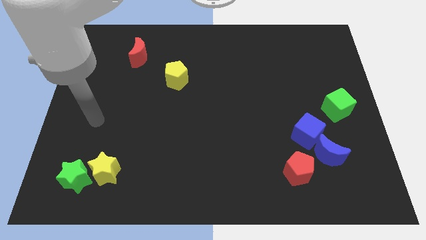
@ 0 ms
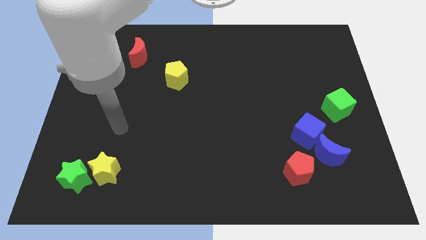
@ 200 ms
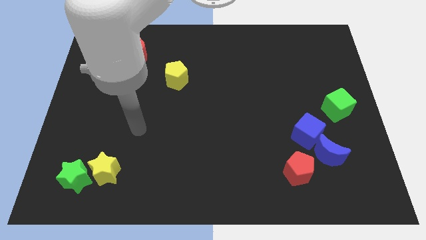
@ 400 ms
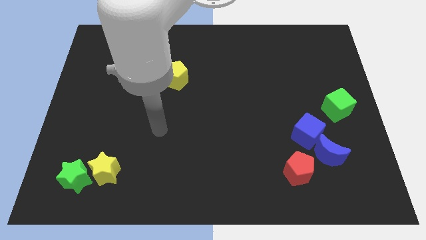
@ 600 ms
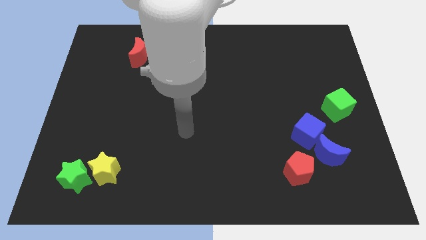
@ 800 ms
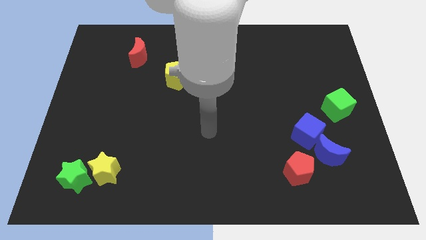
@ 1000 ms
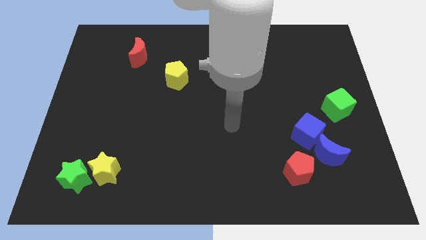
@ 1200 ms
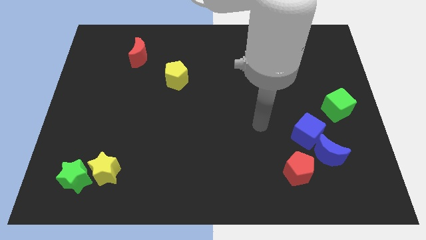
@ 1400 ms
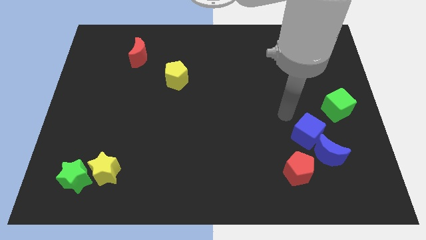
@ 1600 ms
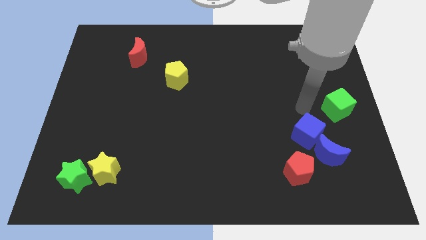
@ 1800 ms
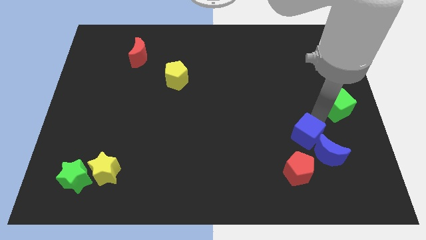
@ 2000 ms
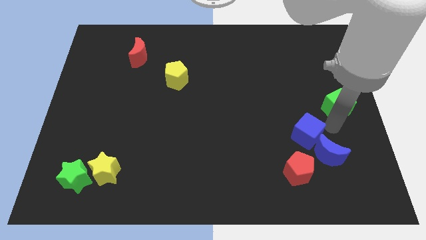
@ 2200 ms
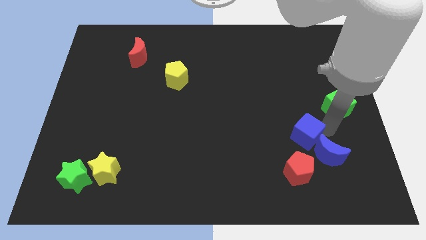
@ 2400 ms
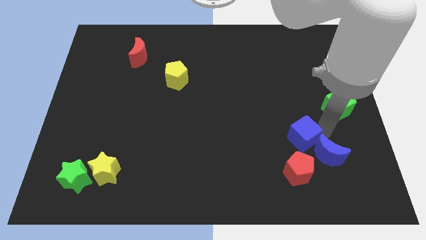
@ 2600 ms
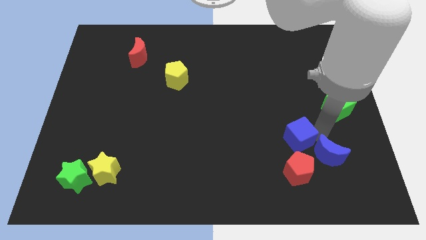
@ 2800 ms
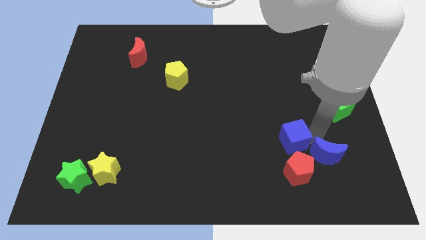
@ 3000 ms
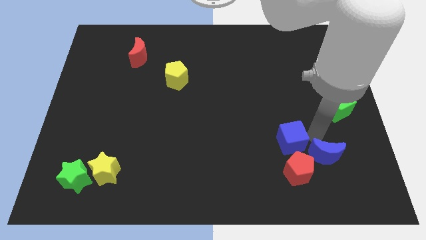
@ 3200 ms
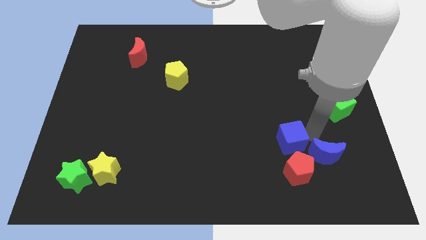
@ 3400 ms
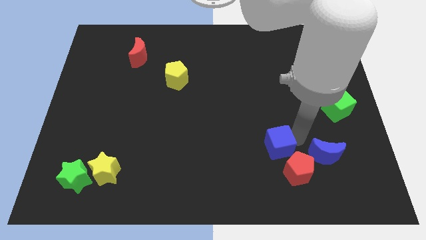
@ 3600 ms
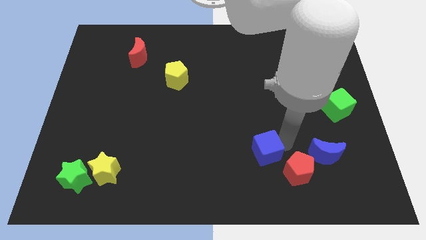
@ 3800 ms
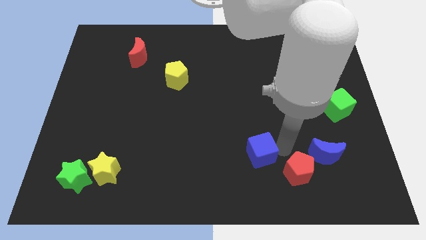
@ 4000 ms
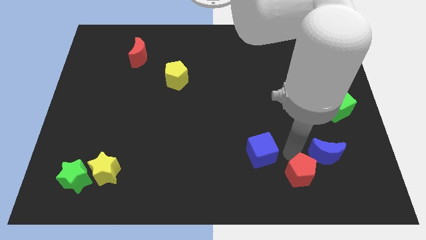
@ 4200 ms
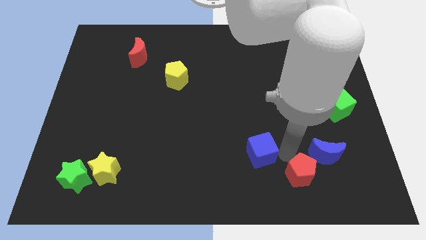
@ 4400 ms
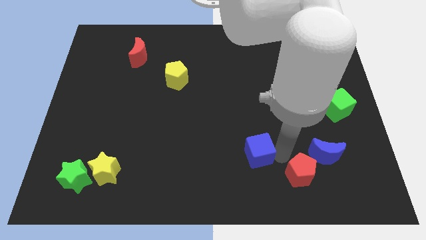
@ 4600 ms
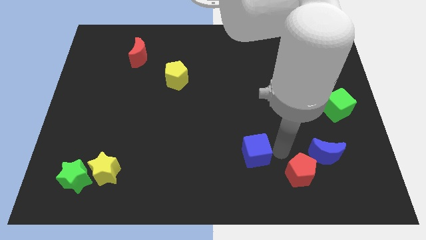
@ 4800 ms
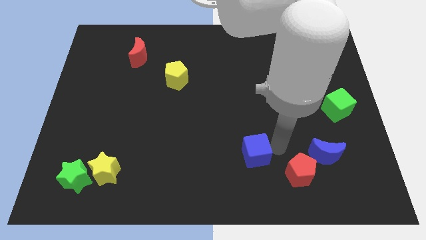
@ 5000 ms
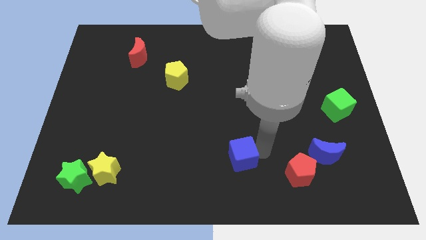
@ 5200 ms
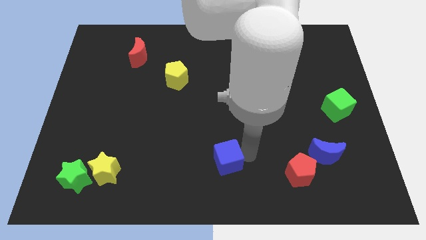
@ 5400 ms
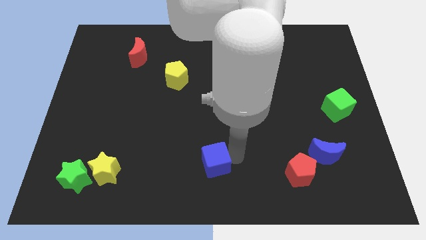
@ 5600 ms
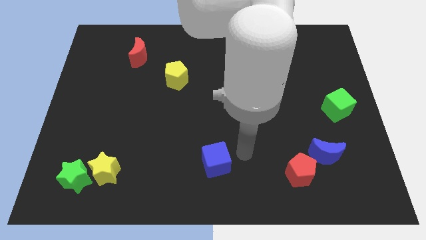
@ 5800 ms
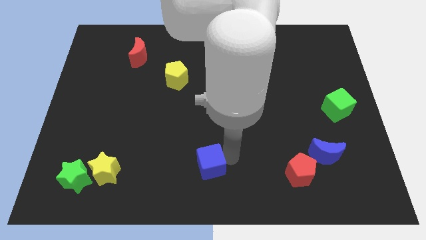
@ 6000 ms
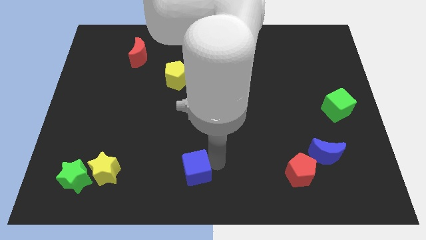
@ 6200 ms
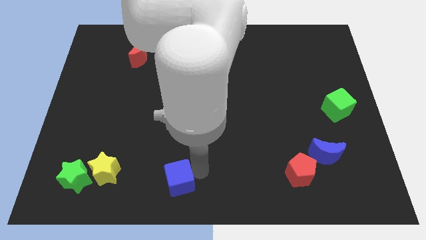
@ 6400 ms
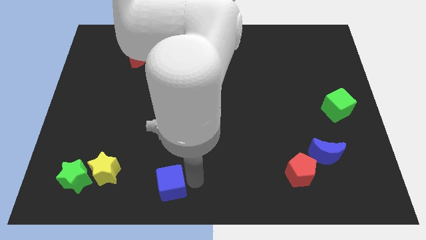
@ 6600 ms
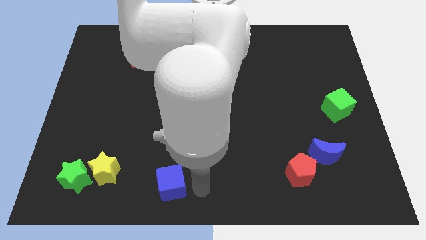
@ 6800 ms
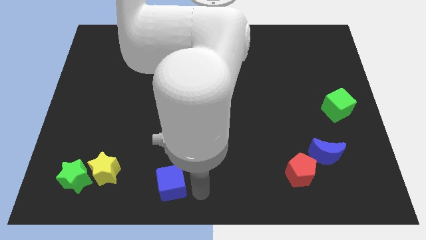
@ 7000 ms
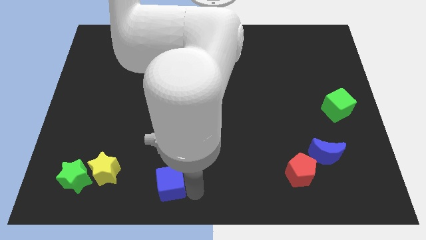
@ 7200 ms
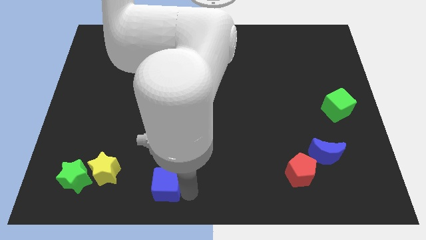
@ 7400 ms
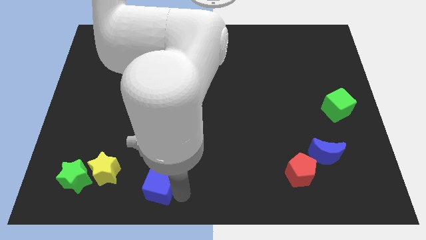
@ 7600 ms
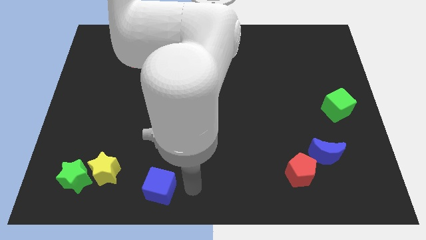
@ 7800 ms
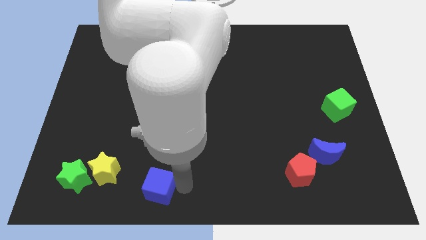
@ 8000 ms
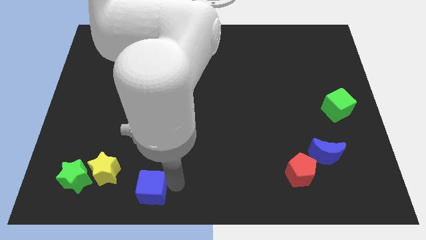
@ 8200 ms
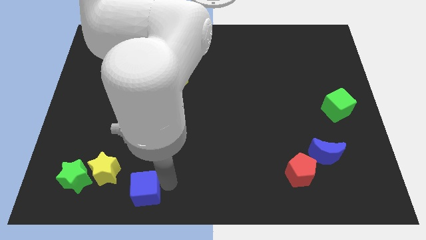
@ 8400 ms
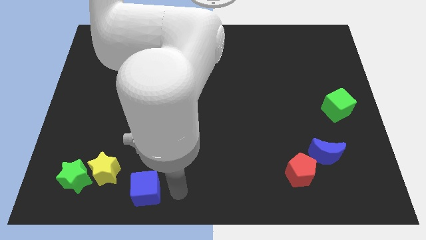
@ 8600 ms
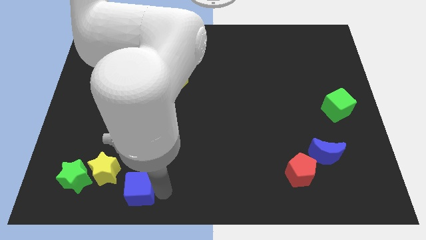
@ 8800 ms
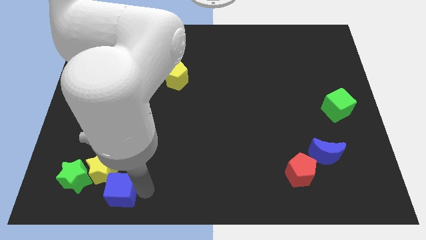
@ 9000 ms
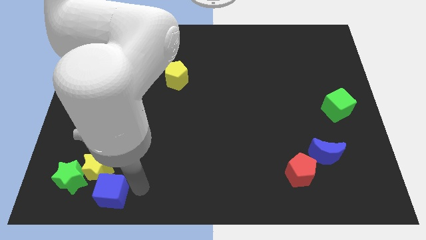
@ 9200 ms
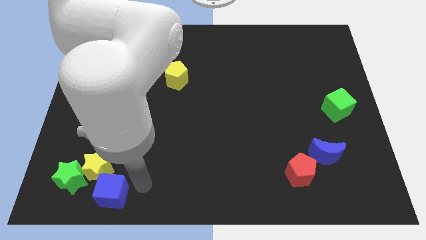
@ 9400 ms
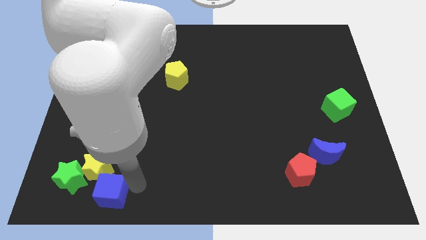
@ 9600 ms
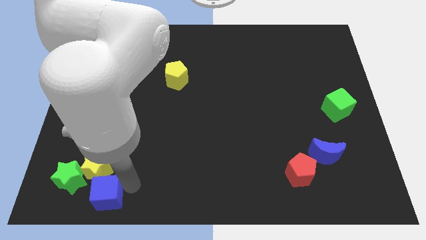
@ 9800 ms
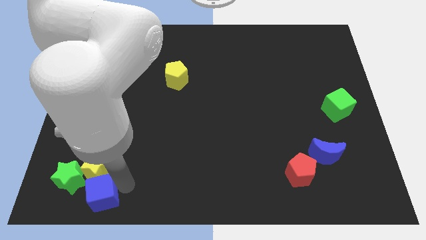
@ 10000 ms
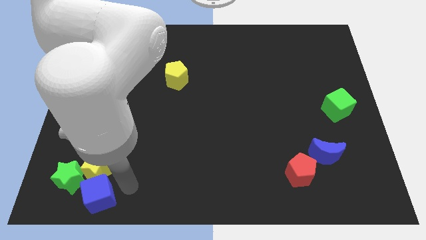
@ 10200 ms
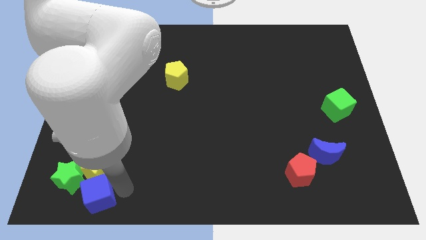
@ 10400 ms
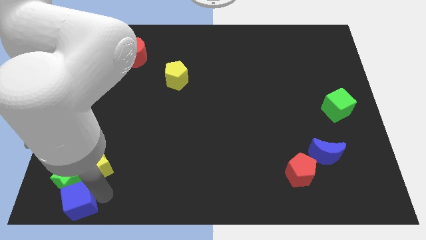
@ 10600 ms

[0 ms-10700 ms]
slide the blue cube to the lower left corner
